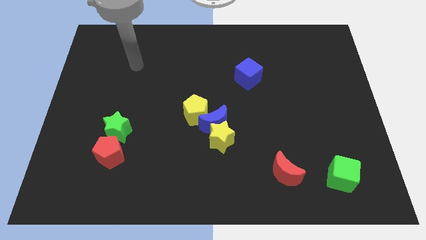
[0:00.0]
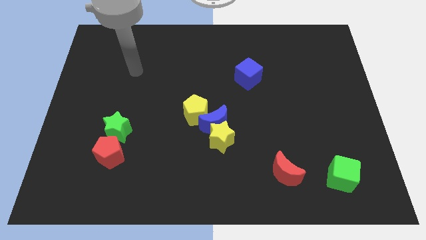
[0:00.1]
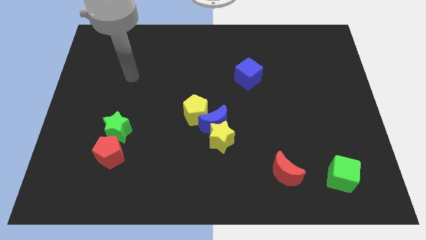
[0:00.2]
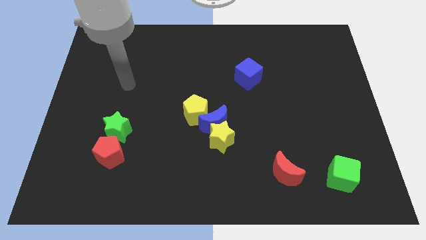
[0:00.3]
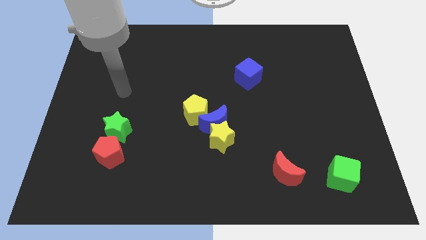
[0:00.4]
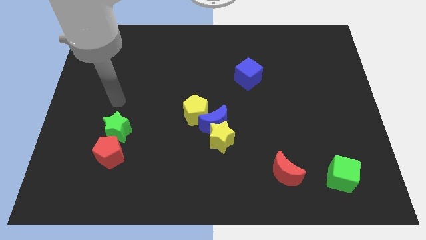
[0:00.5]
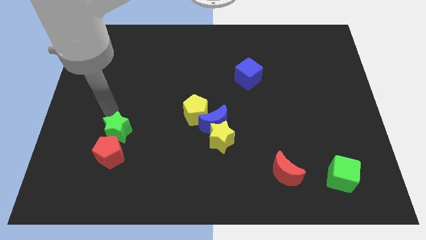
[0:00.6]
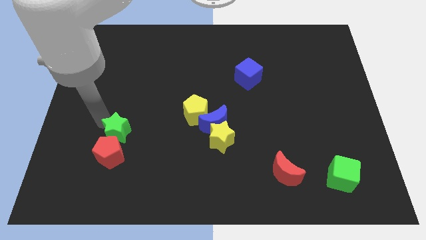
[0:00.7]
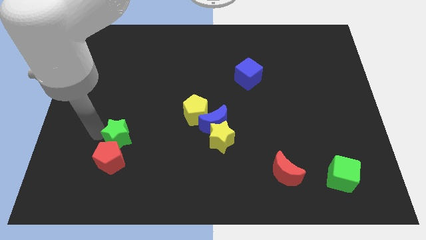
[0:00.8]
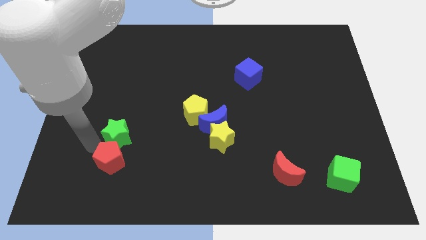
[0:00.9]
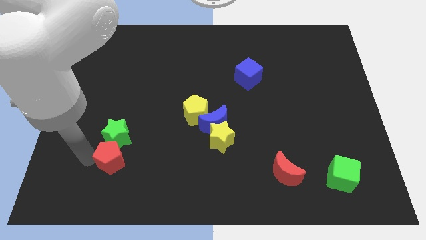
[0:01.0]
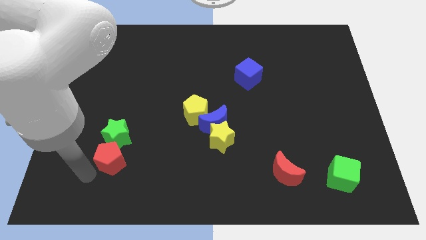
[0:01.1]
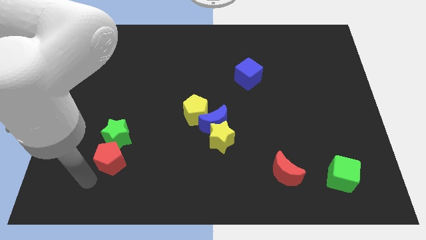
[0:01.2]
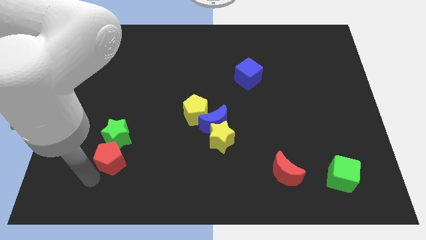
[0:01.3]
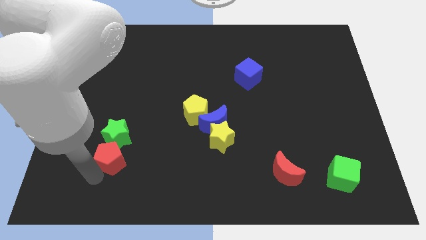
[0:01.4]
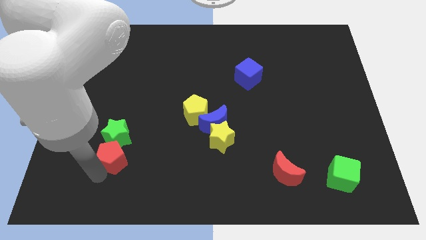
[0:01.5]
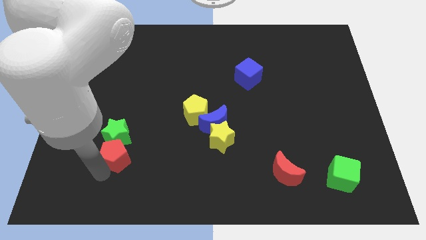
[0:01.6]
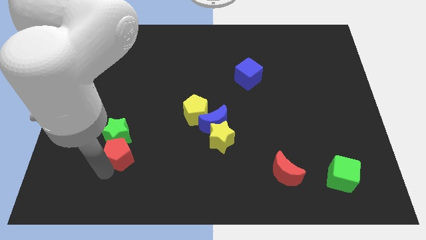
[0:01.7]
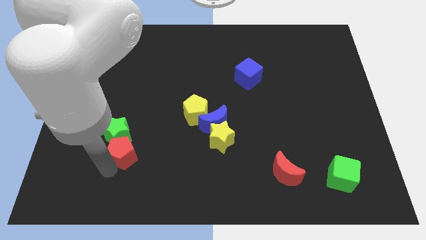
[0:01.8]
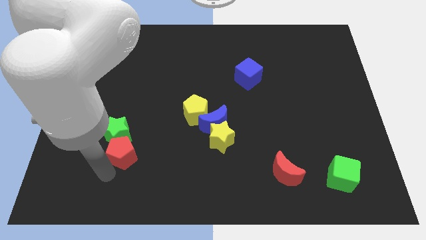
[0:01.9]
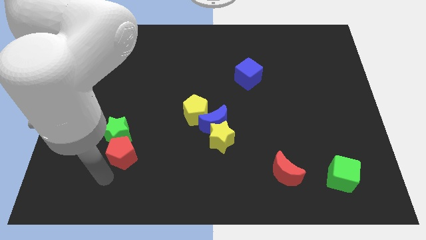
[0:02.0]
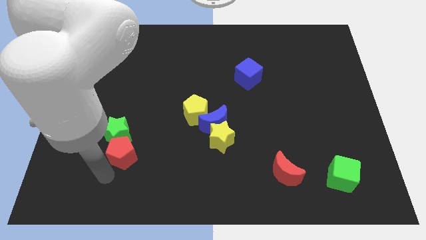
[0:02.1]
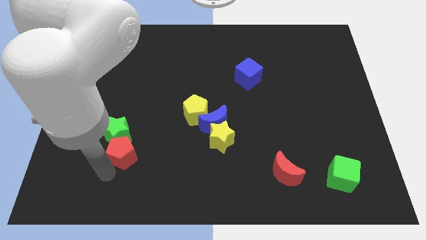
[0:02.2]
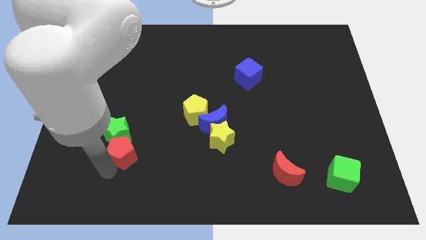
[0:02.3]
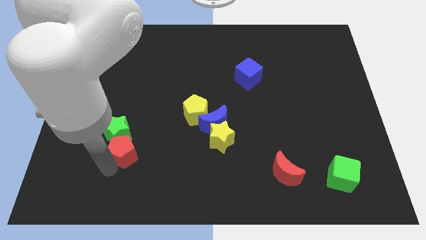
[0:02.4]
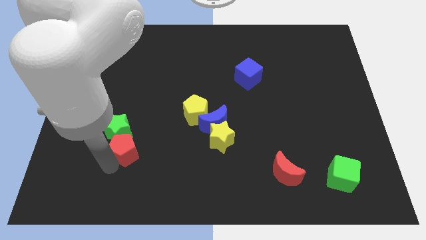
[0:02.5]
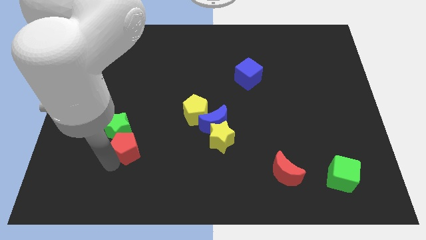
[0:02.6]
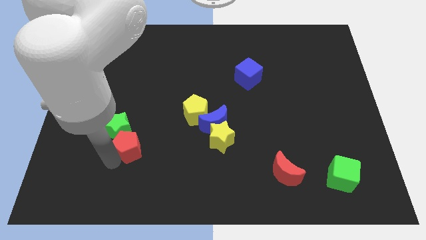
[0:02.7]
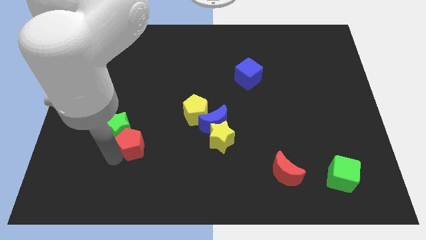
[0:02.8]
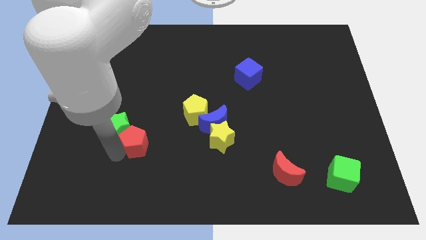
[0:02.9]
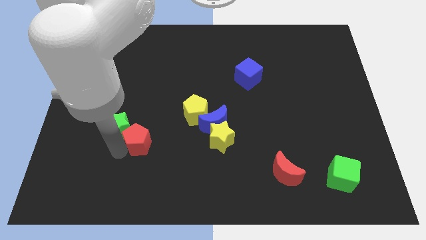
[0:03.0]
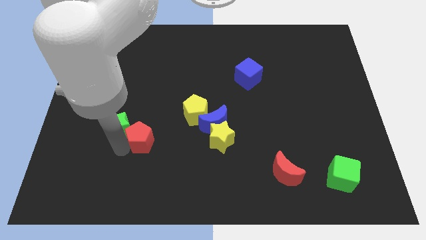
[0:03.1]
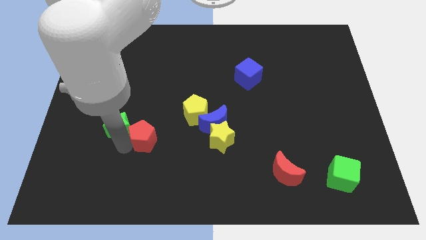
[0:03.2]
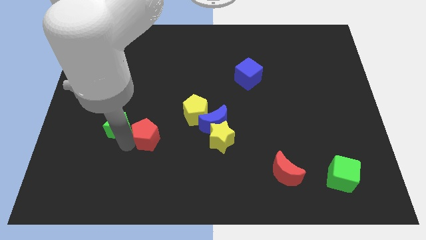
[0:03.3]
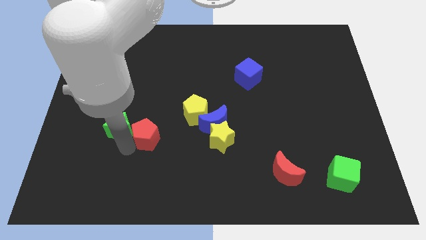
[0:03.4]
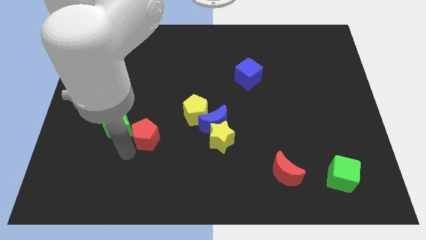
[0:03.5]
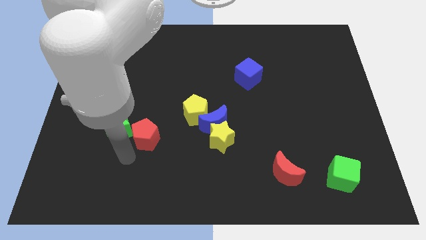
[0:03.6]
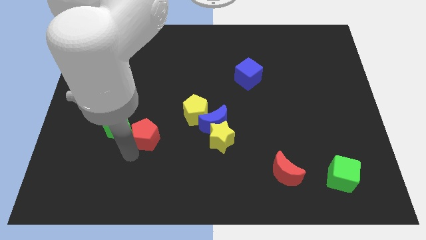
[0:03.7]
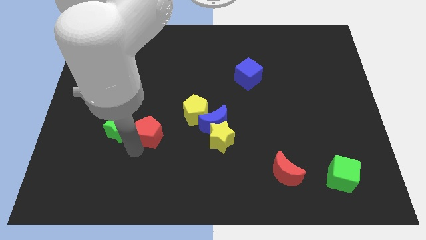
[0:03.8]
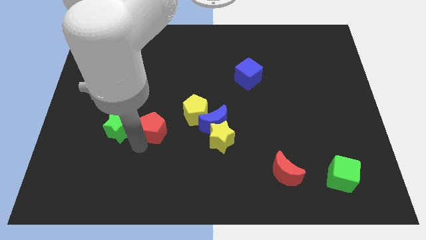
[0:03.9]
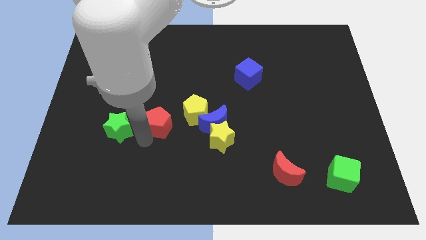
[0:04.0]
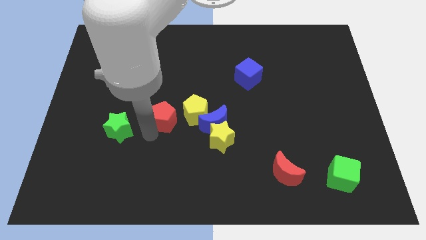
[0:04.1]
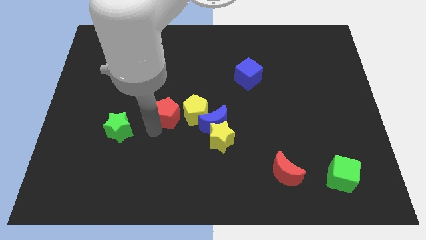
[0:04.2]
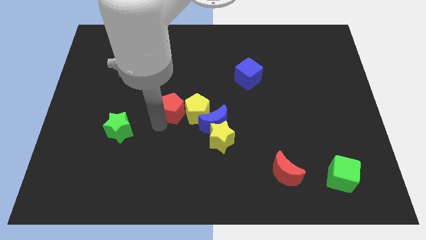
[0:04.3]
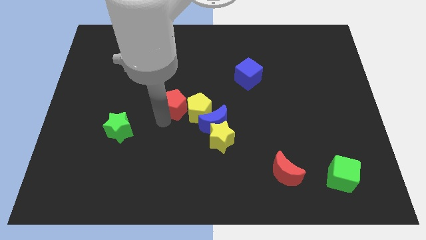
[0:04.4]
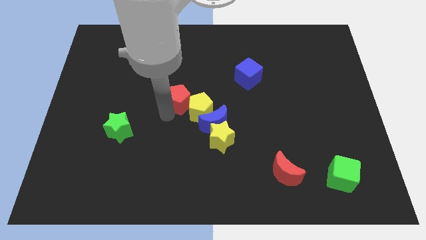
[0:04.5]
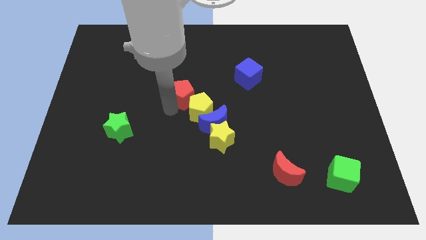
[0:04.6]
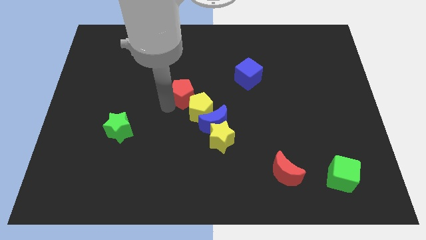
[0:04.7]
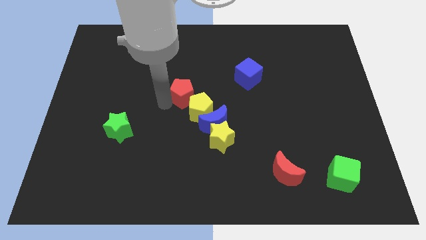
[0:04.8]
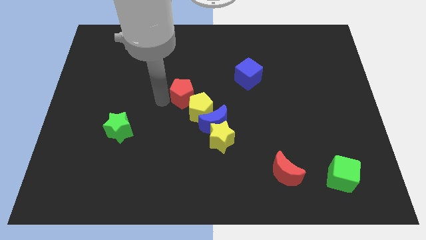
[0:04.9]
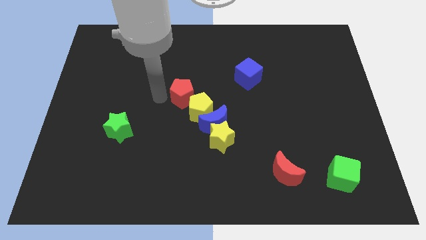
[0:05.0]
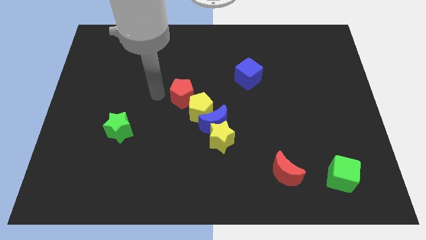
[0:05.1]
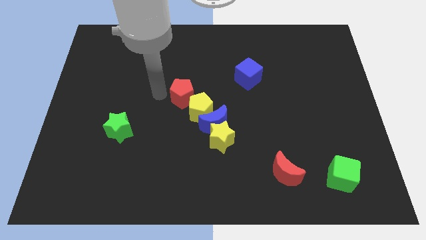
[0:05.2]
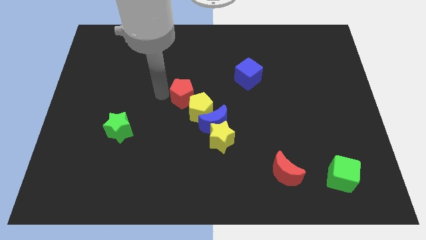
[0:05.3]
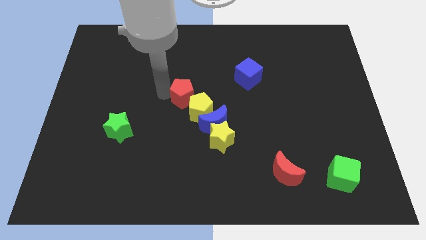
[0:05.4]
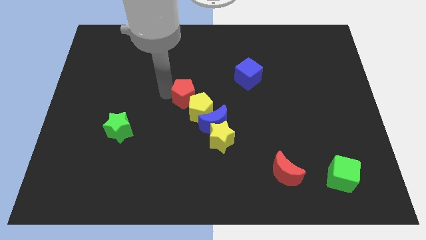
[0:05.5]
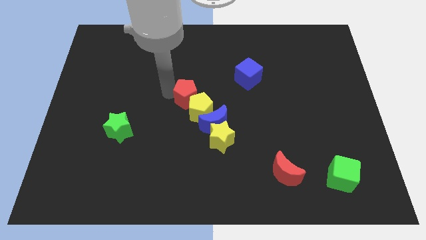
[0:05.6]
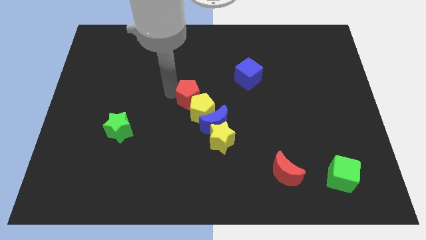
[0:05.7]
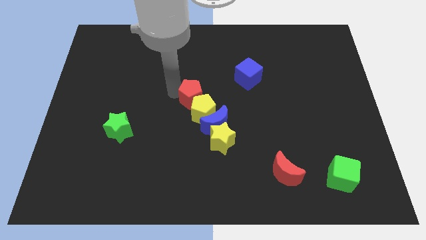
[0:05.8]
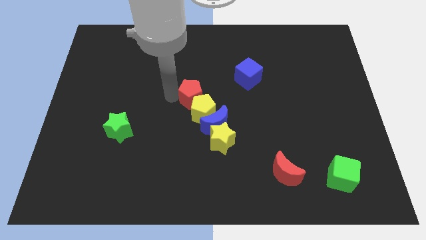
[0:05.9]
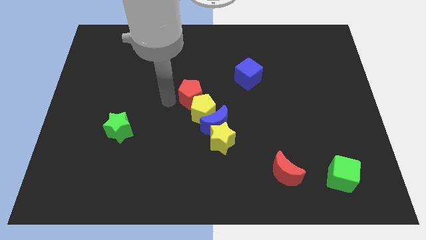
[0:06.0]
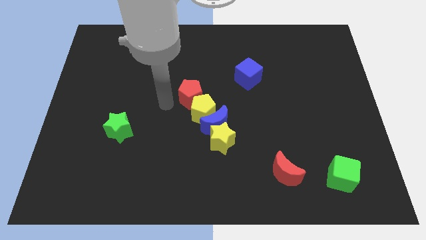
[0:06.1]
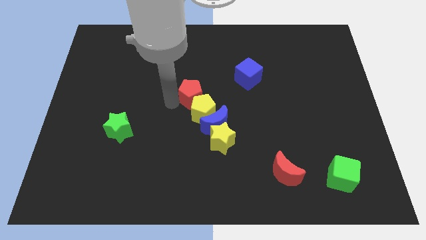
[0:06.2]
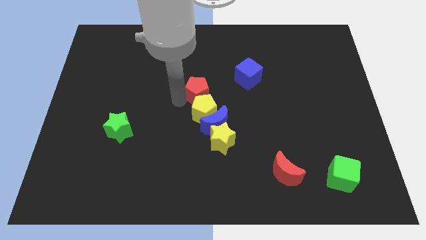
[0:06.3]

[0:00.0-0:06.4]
push the red pentagon above the blue moon

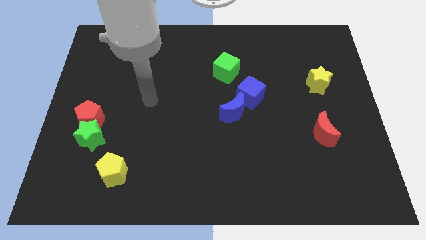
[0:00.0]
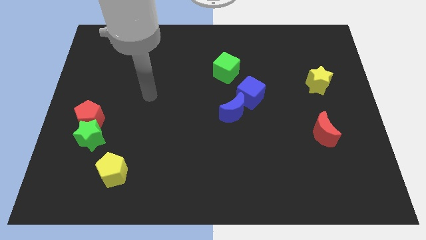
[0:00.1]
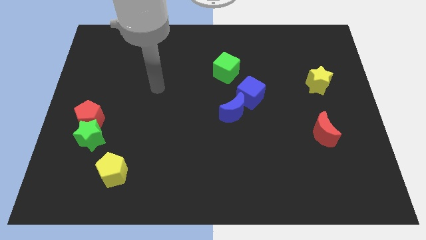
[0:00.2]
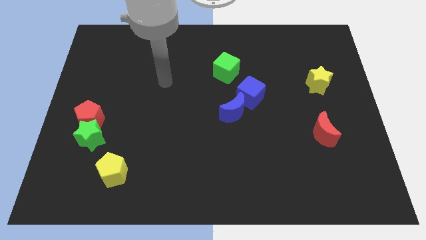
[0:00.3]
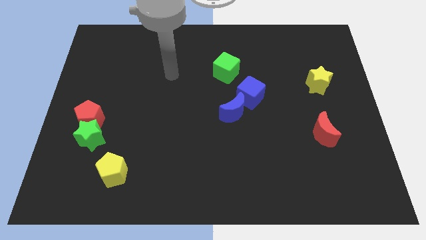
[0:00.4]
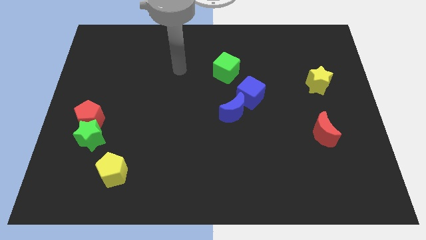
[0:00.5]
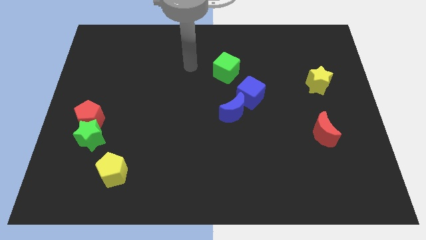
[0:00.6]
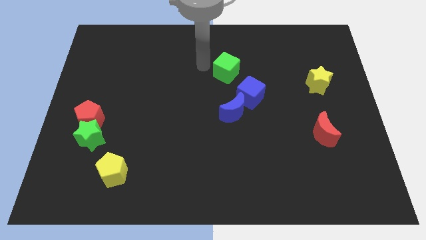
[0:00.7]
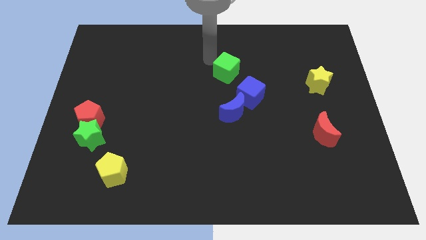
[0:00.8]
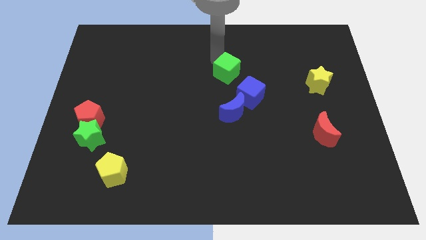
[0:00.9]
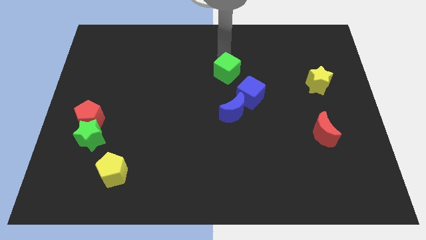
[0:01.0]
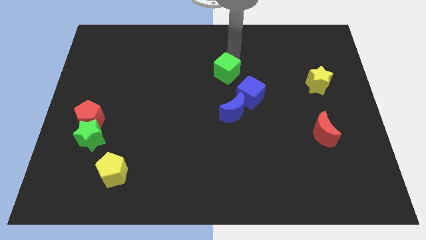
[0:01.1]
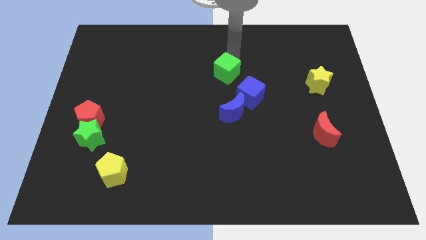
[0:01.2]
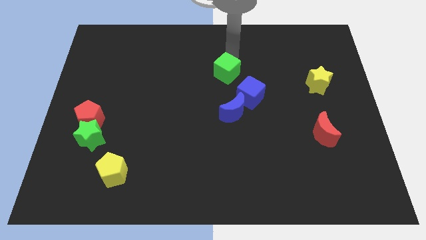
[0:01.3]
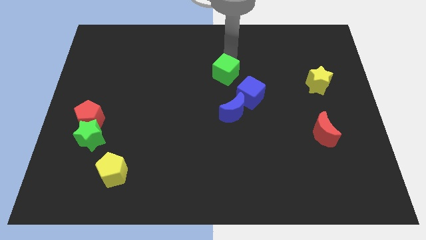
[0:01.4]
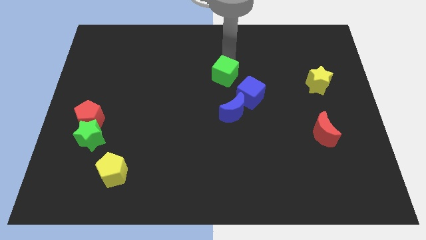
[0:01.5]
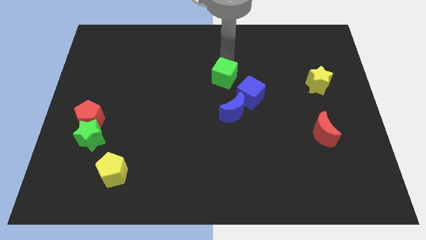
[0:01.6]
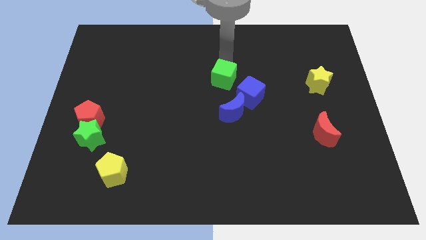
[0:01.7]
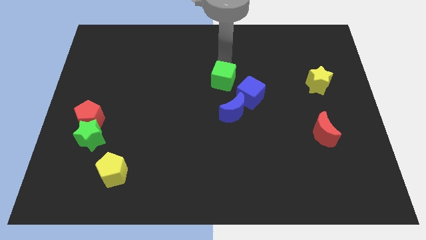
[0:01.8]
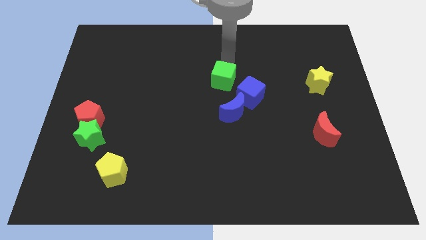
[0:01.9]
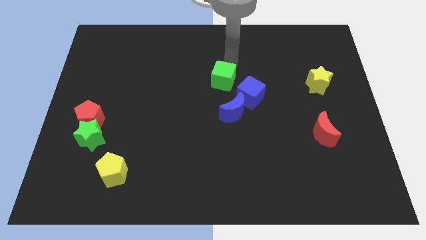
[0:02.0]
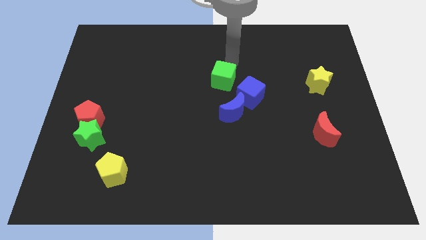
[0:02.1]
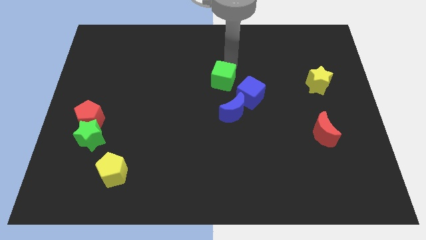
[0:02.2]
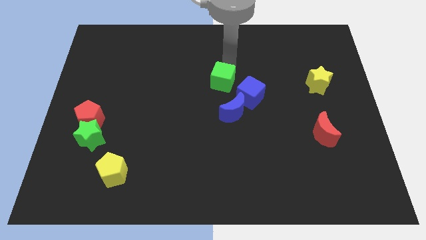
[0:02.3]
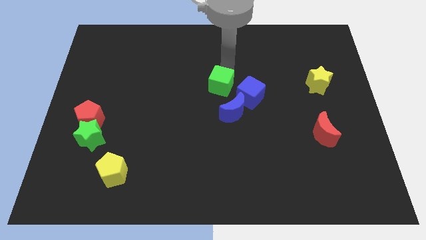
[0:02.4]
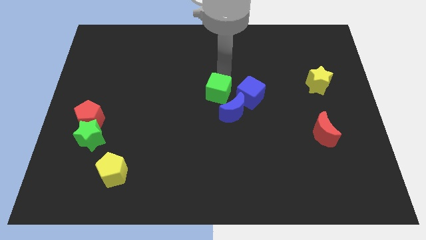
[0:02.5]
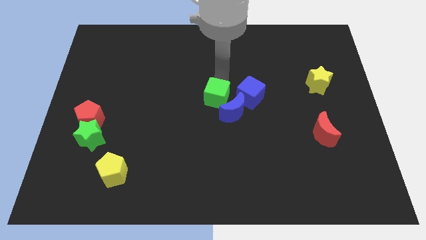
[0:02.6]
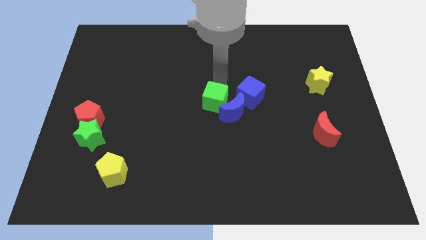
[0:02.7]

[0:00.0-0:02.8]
slide the green cube to the bottom left side of the blue cube
